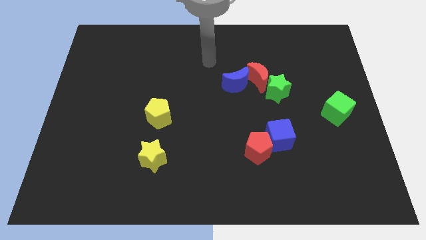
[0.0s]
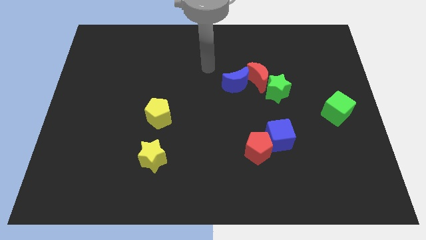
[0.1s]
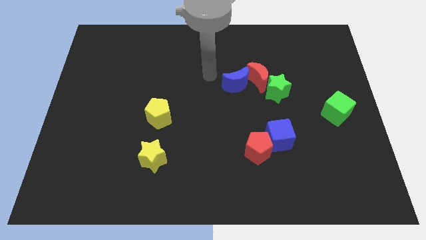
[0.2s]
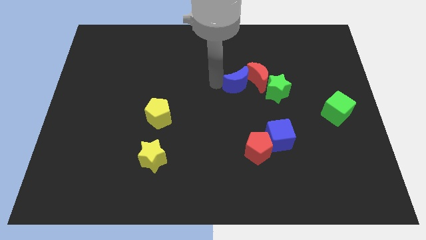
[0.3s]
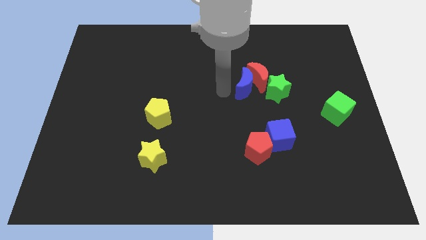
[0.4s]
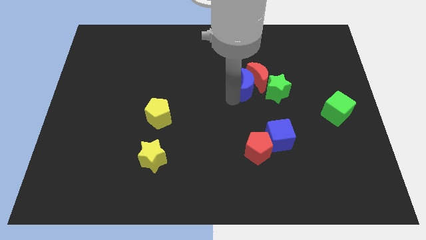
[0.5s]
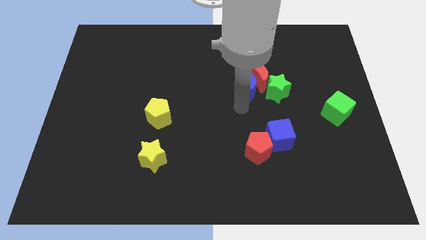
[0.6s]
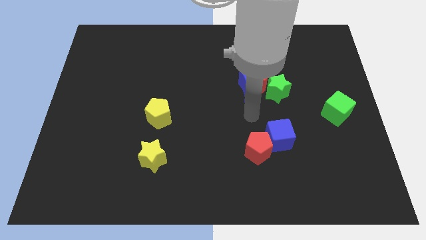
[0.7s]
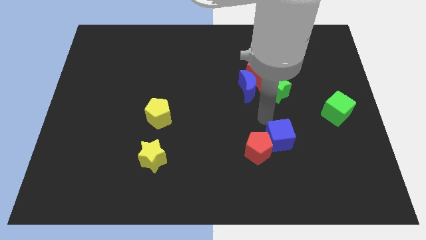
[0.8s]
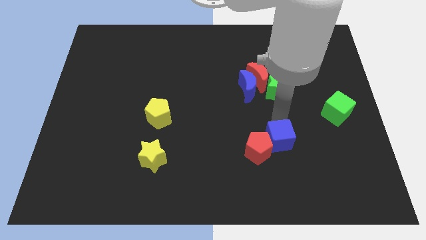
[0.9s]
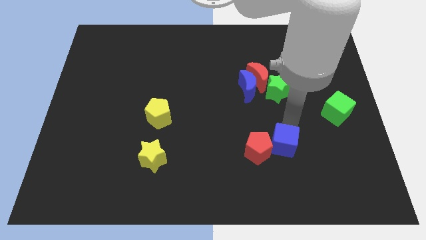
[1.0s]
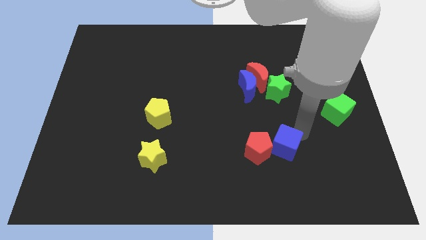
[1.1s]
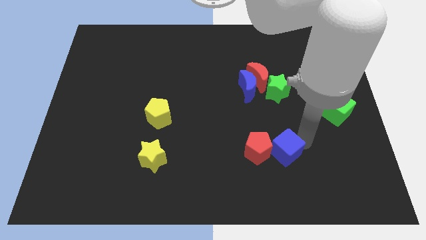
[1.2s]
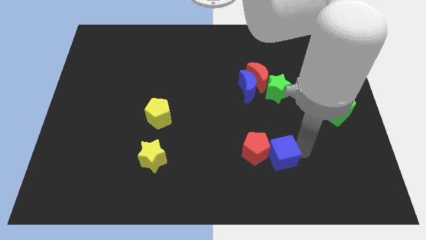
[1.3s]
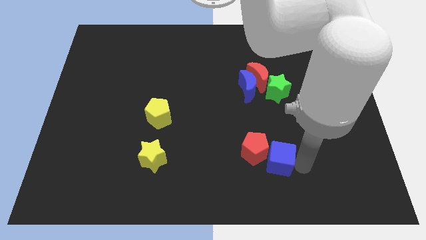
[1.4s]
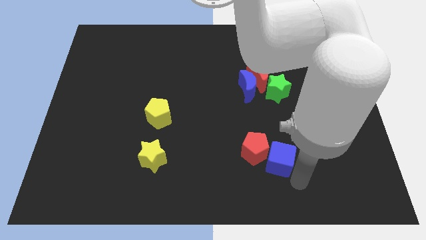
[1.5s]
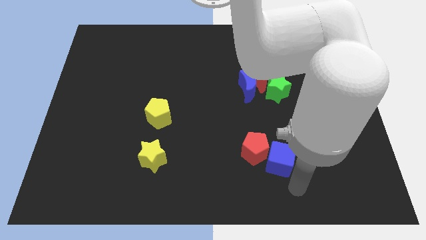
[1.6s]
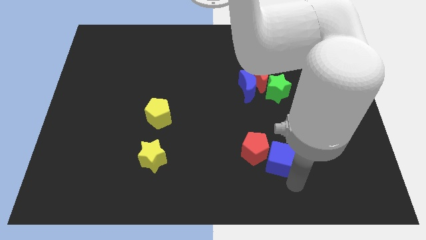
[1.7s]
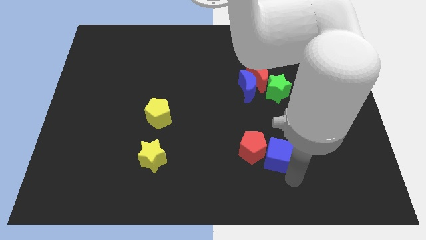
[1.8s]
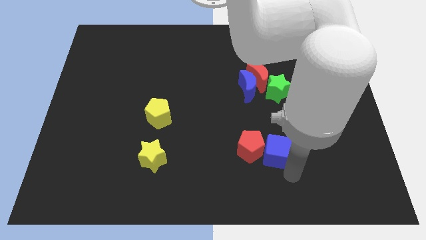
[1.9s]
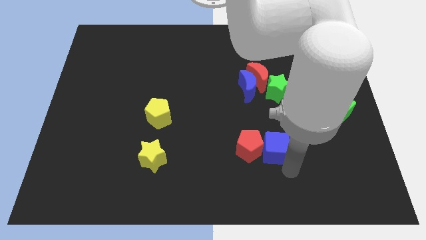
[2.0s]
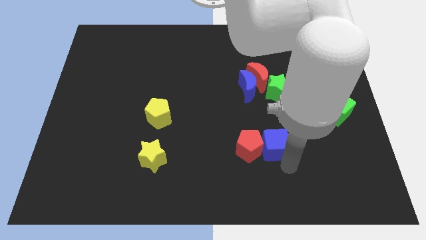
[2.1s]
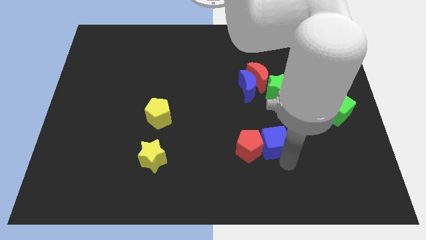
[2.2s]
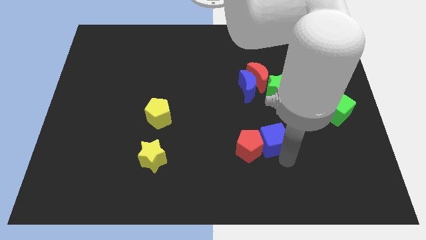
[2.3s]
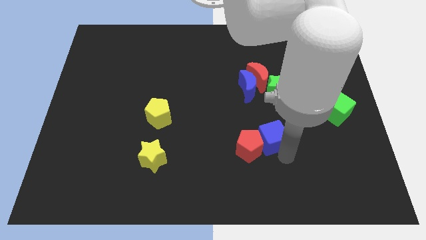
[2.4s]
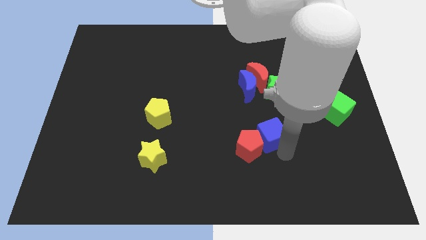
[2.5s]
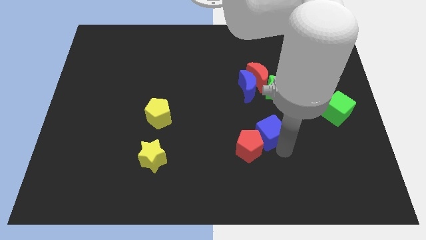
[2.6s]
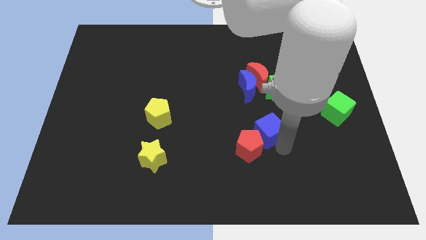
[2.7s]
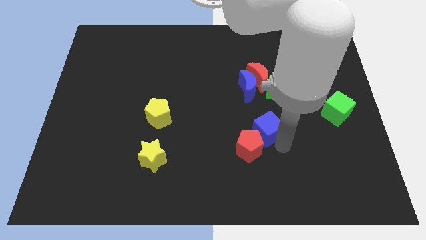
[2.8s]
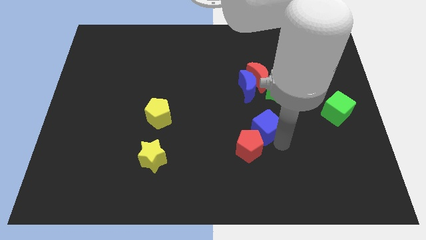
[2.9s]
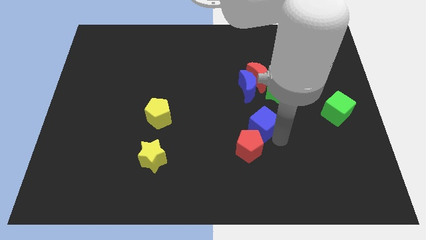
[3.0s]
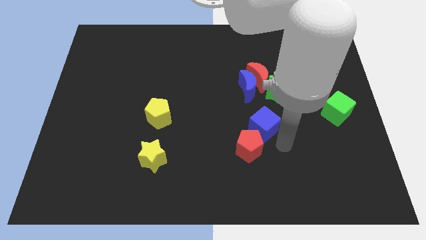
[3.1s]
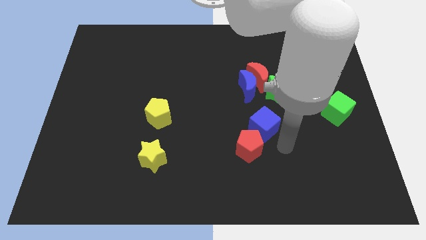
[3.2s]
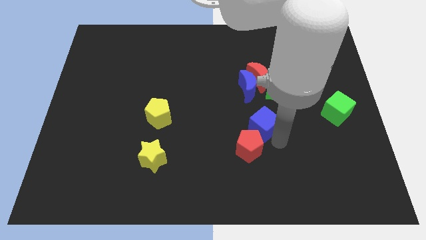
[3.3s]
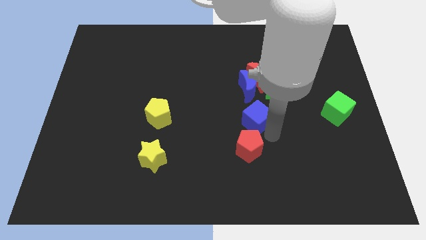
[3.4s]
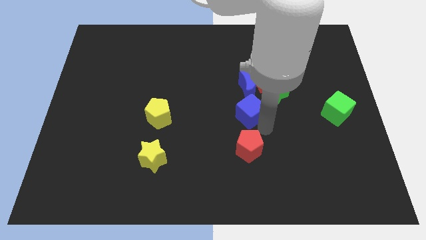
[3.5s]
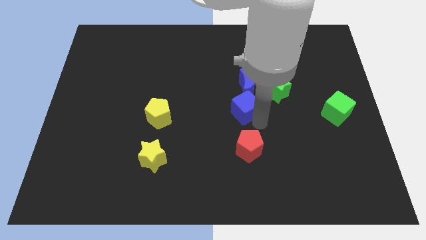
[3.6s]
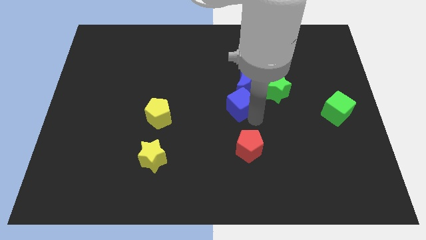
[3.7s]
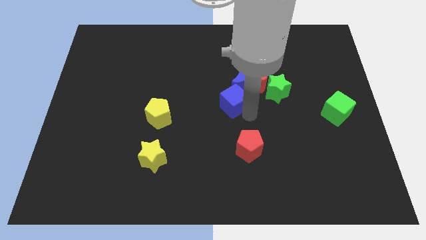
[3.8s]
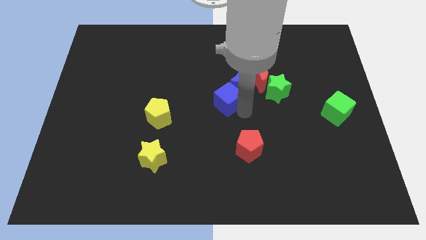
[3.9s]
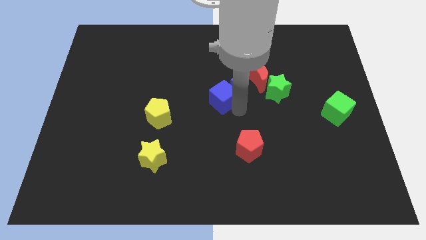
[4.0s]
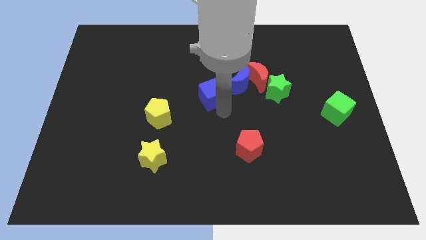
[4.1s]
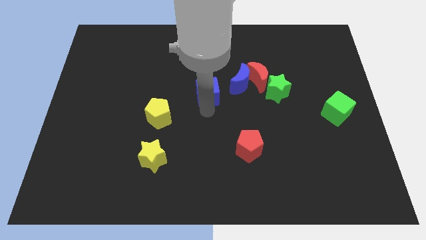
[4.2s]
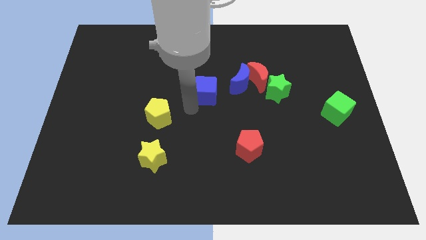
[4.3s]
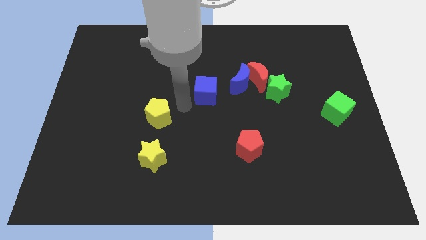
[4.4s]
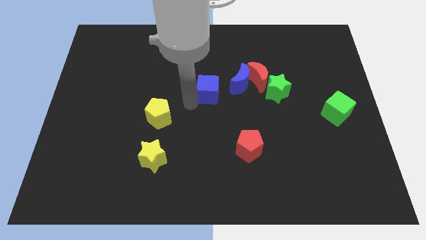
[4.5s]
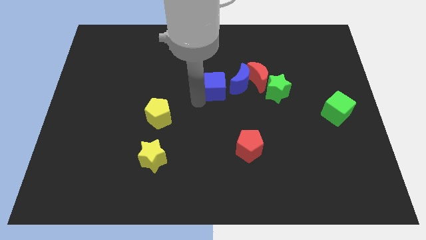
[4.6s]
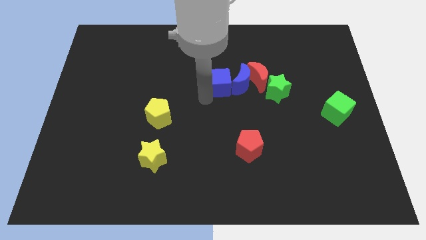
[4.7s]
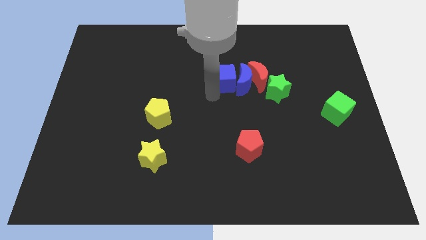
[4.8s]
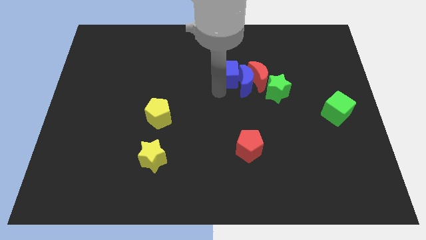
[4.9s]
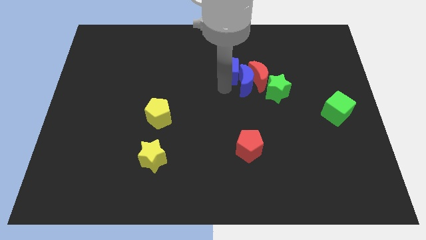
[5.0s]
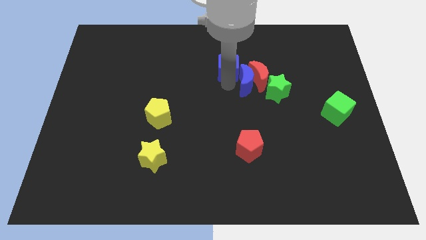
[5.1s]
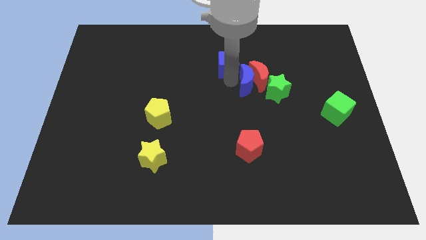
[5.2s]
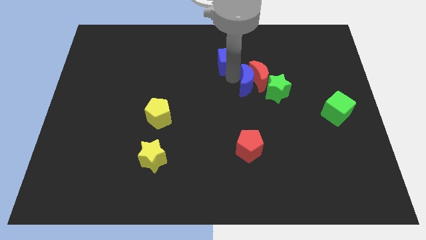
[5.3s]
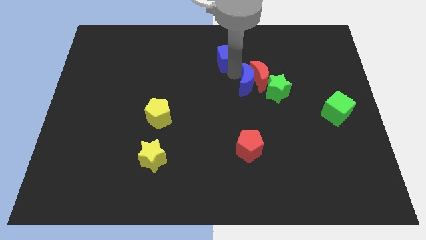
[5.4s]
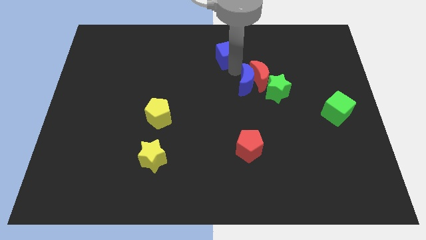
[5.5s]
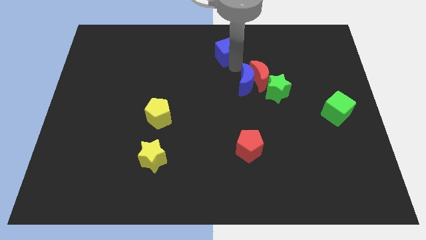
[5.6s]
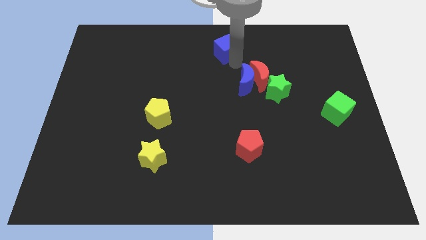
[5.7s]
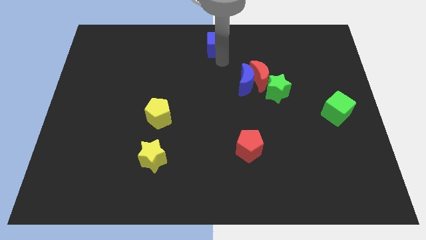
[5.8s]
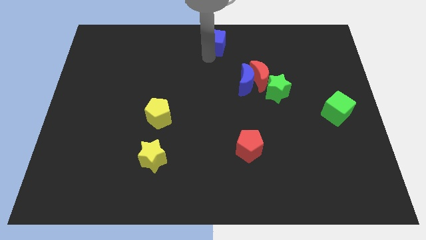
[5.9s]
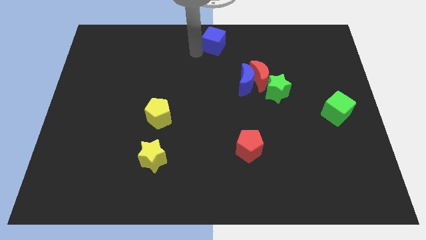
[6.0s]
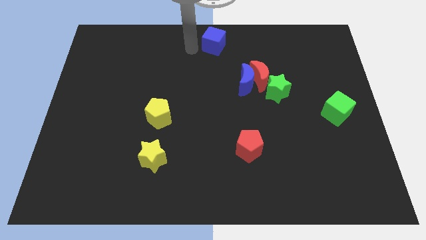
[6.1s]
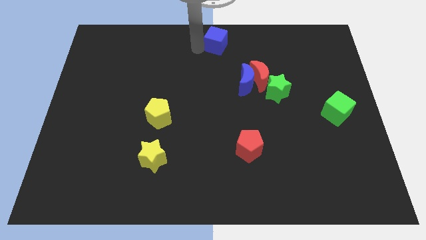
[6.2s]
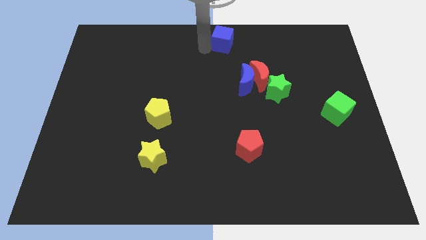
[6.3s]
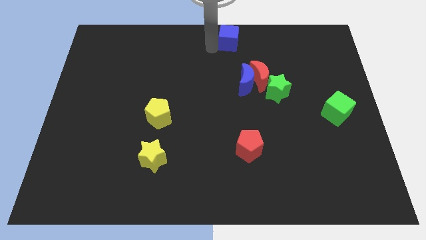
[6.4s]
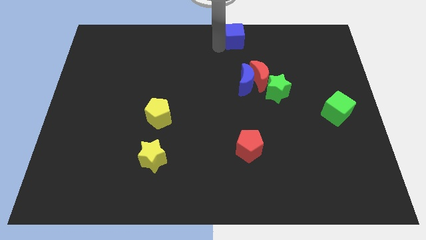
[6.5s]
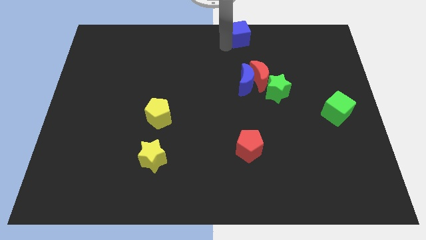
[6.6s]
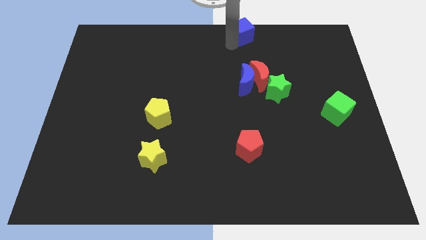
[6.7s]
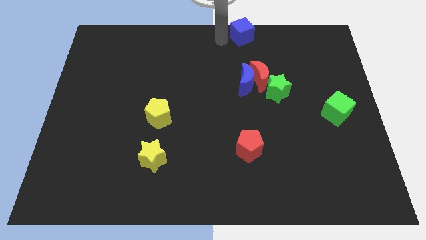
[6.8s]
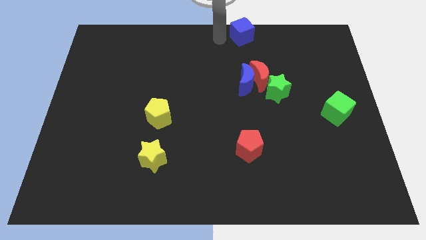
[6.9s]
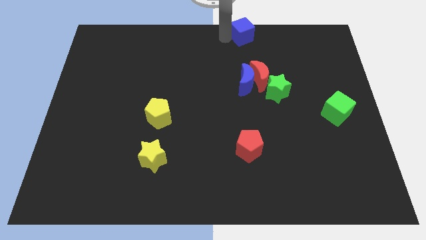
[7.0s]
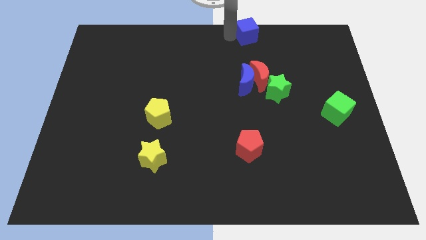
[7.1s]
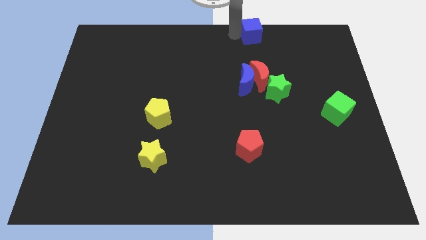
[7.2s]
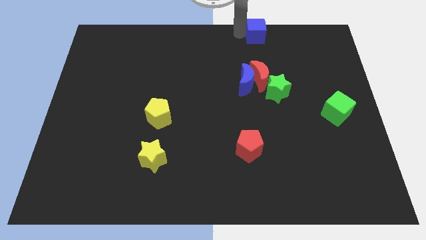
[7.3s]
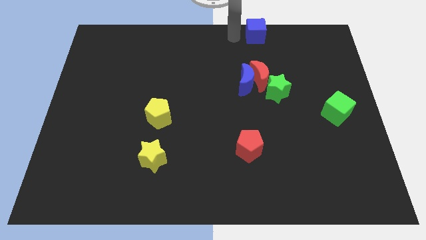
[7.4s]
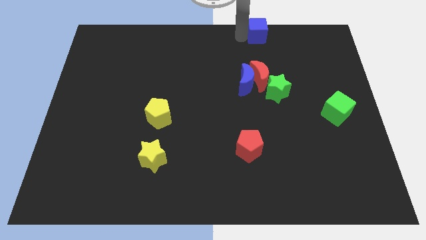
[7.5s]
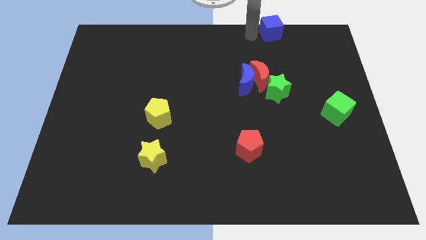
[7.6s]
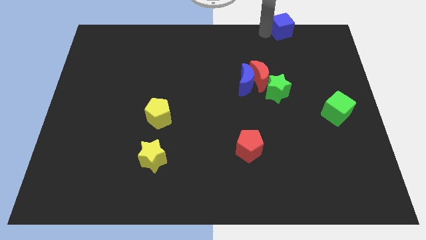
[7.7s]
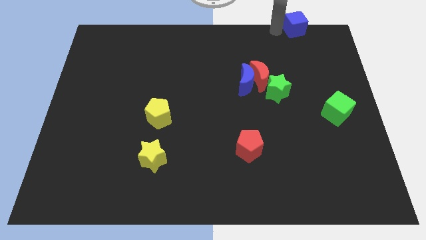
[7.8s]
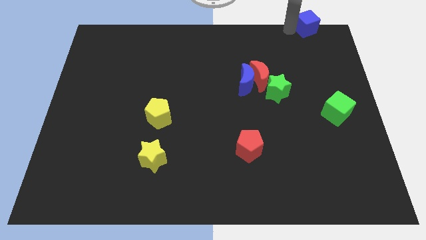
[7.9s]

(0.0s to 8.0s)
slide the blue cube to the top right corner
